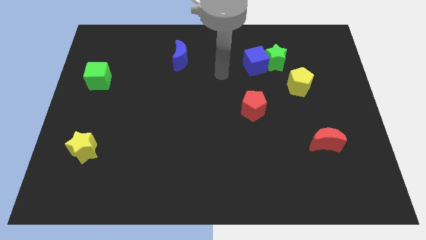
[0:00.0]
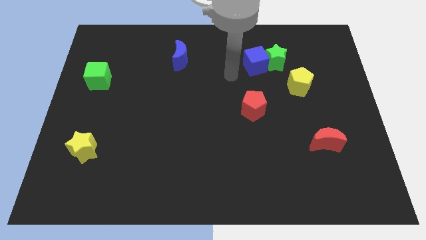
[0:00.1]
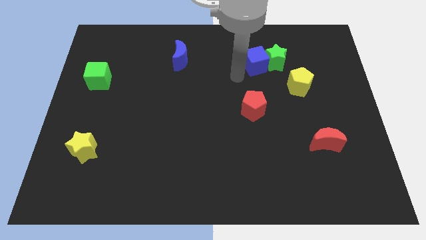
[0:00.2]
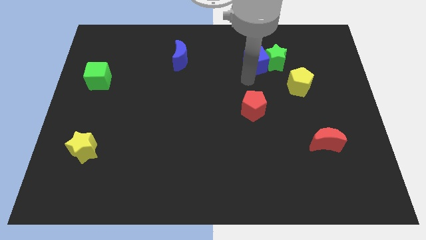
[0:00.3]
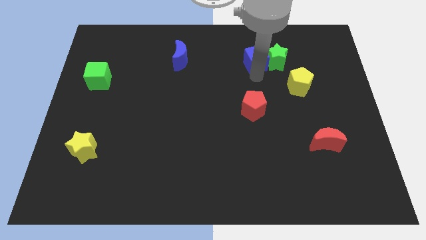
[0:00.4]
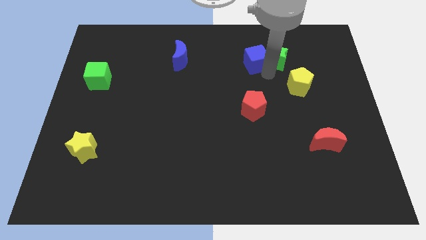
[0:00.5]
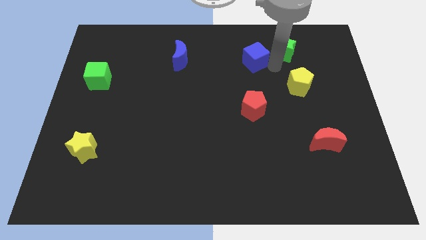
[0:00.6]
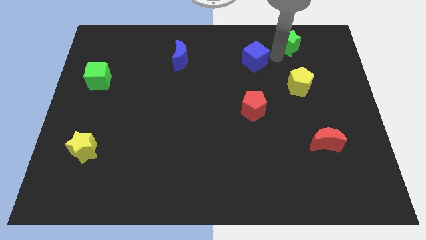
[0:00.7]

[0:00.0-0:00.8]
pull the blue cube apart from the green star

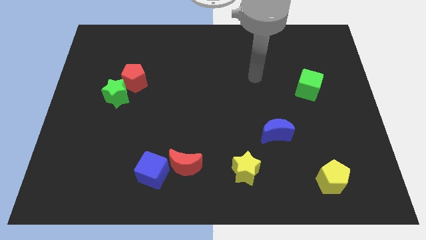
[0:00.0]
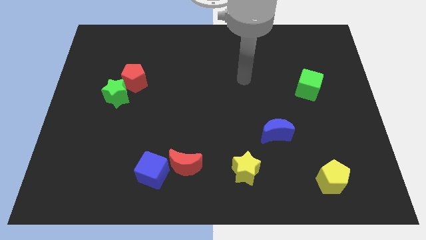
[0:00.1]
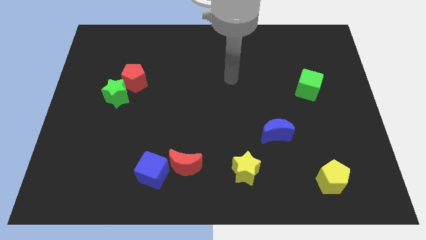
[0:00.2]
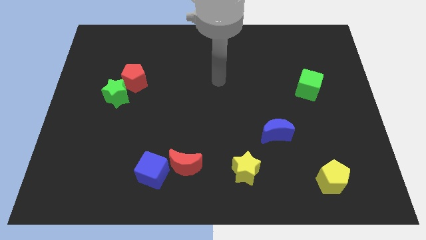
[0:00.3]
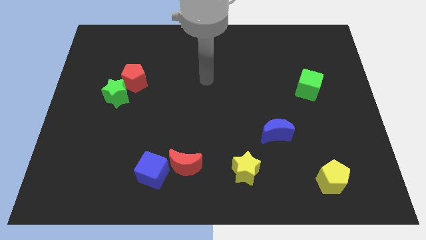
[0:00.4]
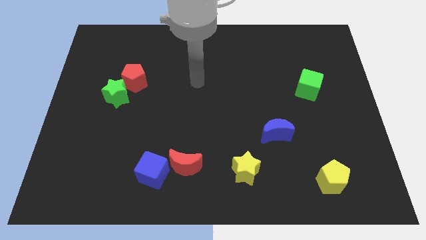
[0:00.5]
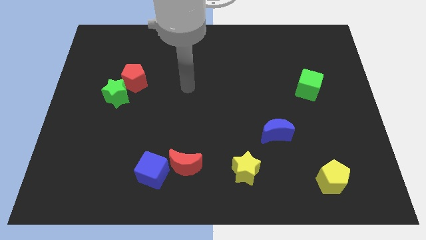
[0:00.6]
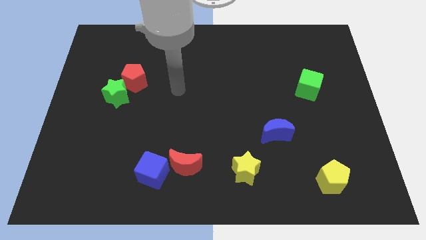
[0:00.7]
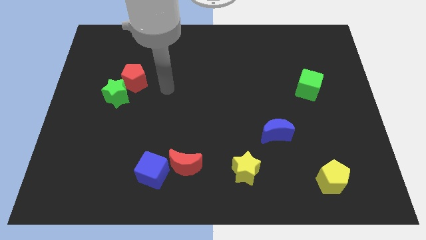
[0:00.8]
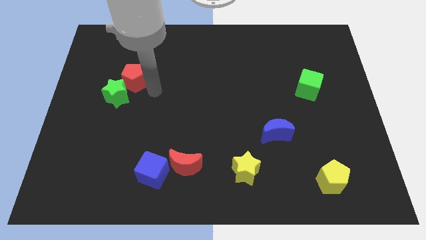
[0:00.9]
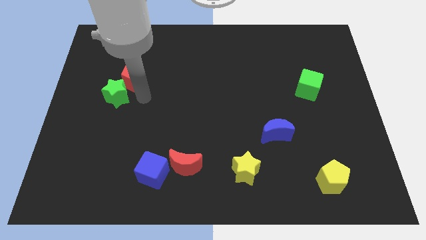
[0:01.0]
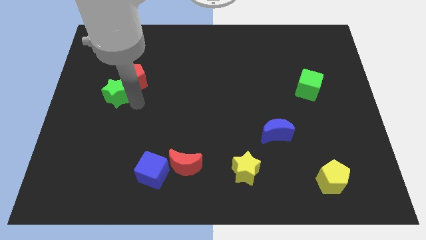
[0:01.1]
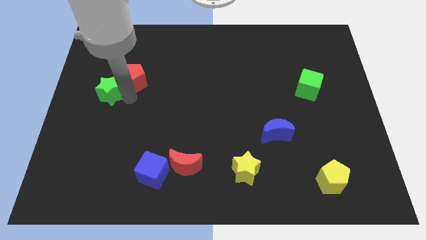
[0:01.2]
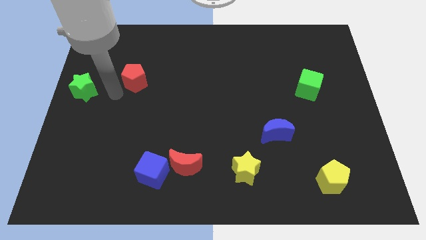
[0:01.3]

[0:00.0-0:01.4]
pull the red pentagon apart from the green star

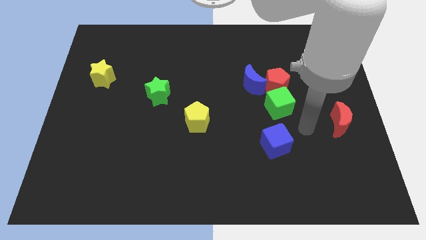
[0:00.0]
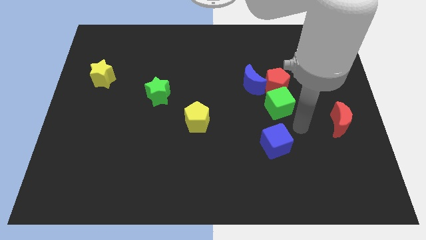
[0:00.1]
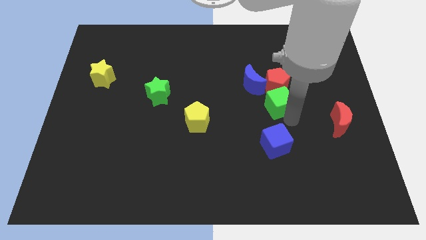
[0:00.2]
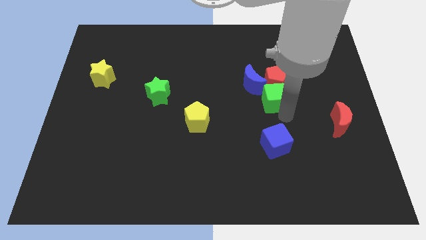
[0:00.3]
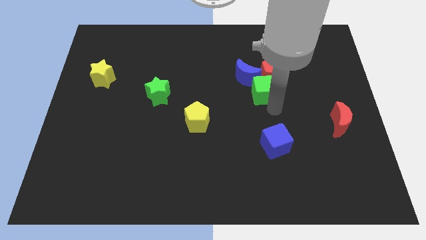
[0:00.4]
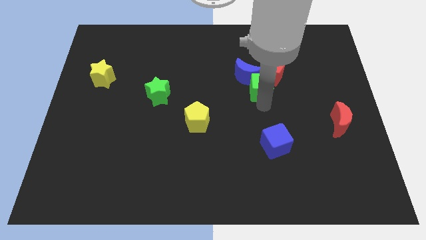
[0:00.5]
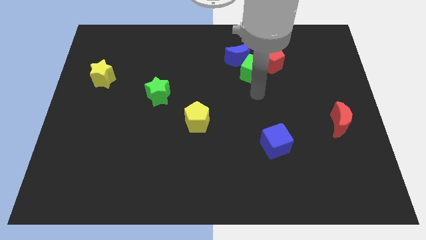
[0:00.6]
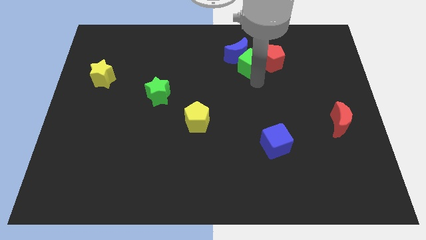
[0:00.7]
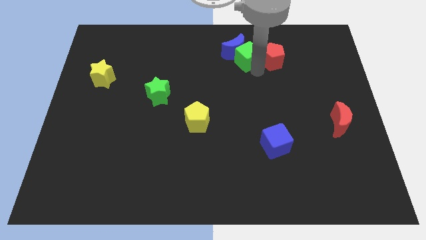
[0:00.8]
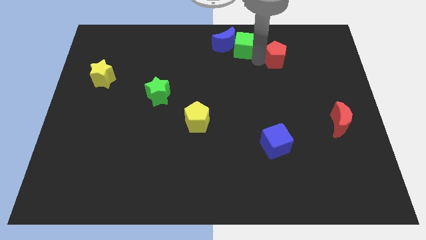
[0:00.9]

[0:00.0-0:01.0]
separate the red pentagon from the blue moon and green cube

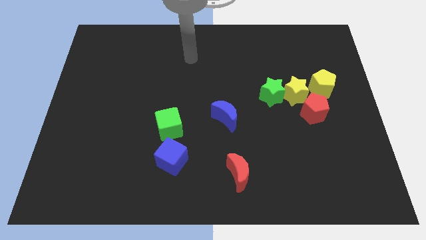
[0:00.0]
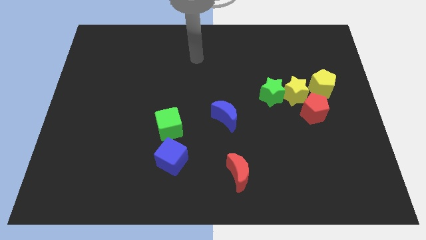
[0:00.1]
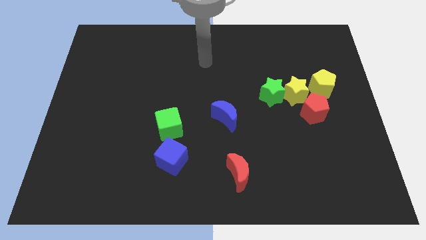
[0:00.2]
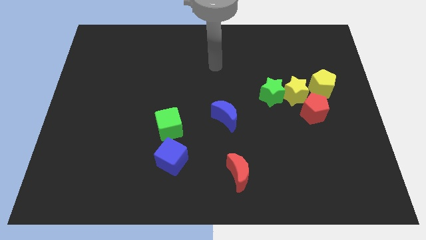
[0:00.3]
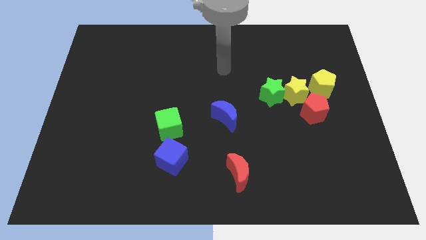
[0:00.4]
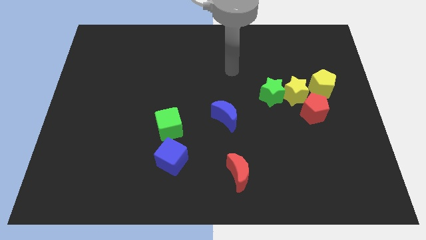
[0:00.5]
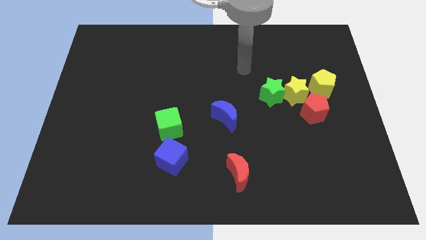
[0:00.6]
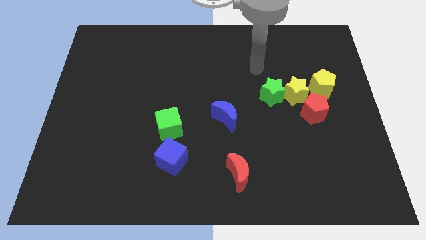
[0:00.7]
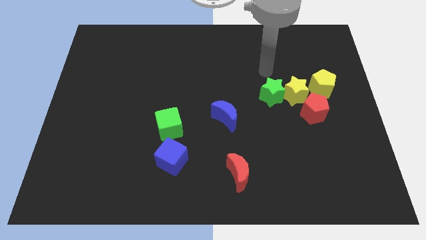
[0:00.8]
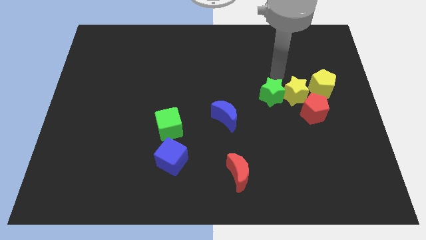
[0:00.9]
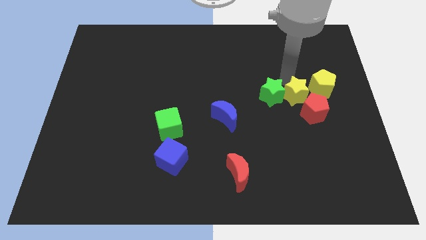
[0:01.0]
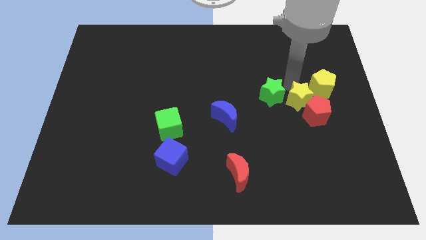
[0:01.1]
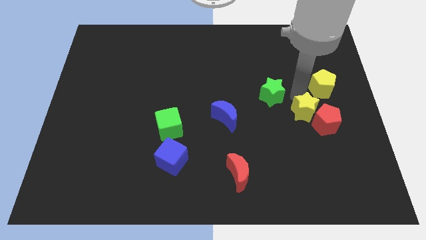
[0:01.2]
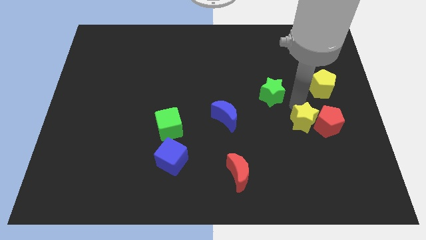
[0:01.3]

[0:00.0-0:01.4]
separate the green star from the yellow star

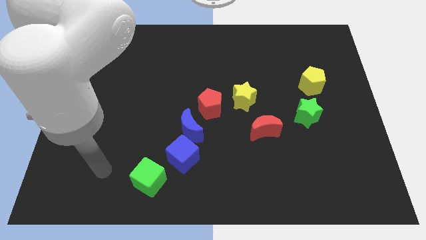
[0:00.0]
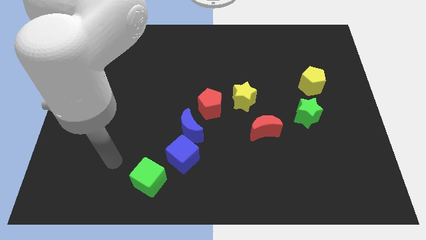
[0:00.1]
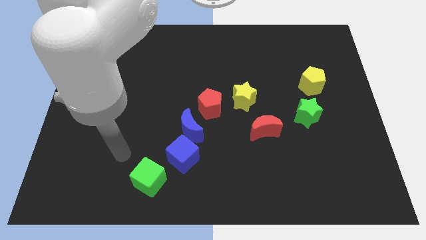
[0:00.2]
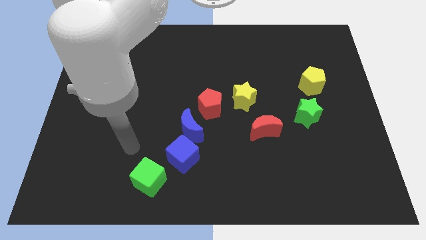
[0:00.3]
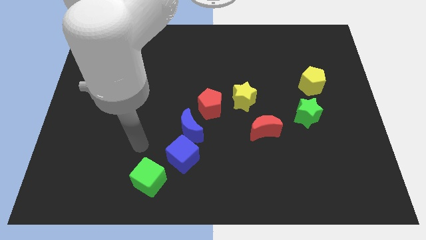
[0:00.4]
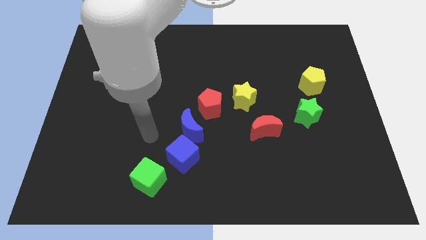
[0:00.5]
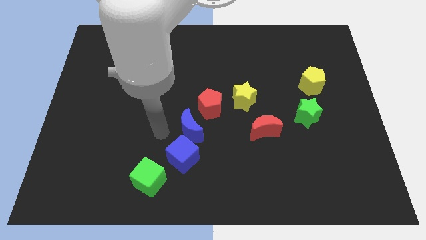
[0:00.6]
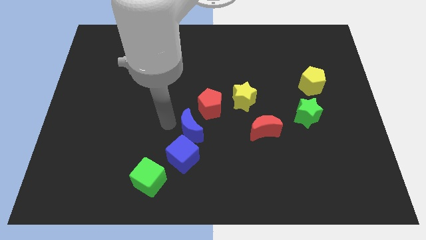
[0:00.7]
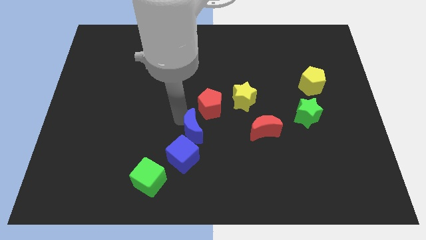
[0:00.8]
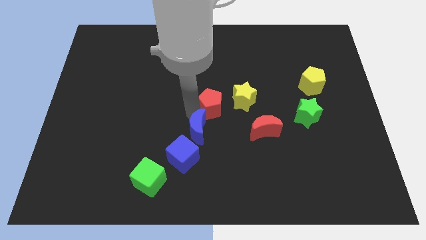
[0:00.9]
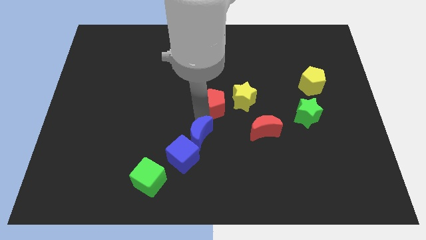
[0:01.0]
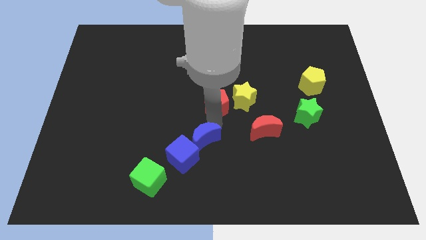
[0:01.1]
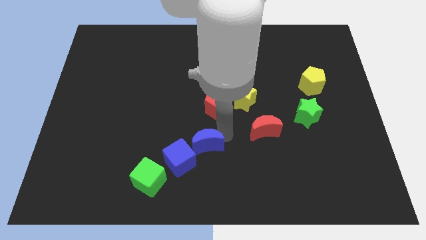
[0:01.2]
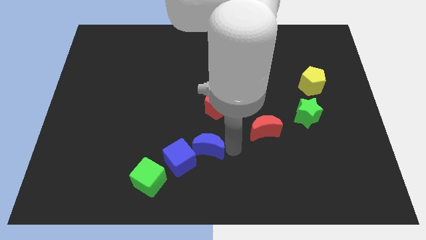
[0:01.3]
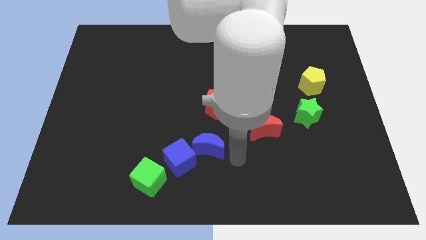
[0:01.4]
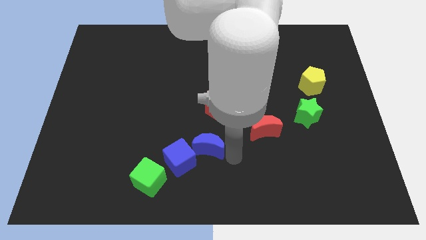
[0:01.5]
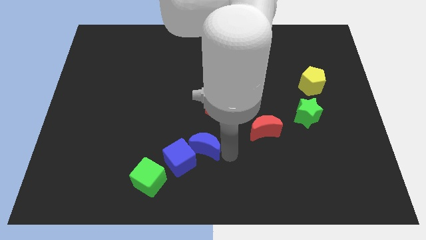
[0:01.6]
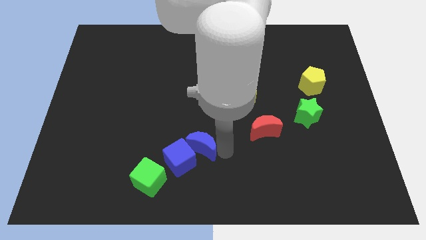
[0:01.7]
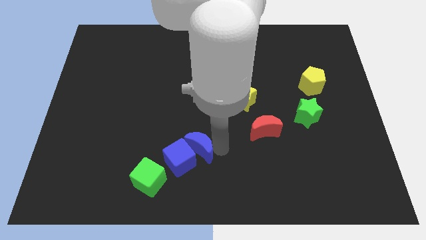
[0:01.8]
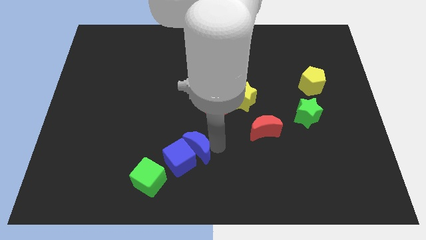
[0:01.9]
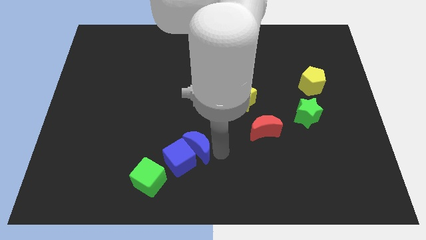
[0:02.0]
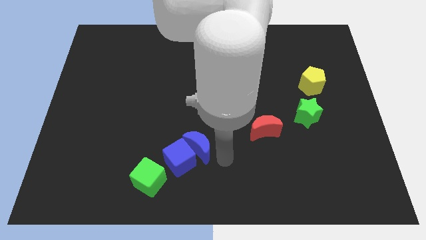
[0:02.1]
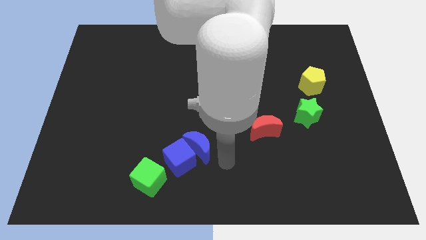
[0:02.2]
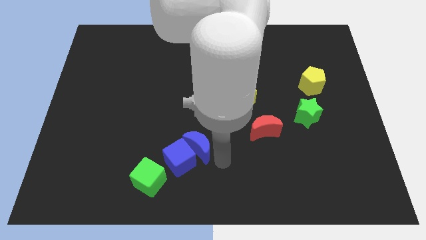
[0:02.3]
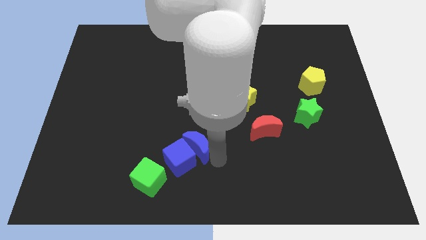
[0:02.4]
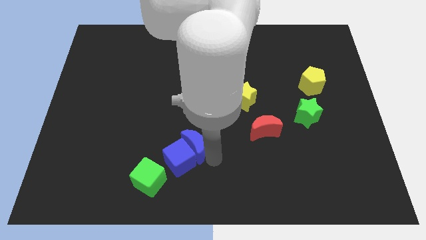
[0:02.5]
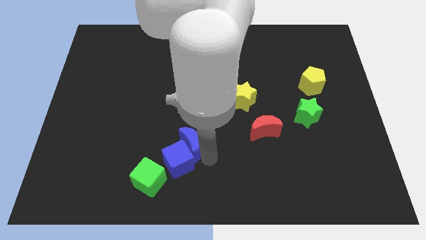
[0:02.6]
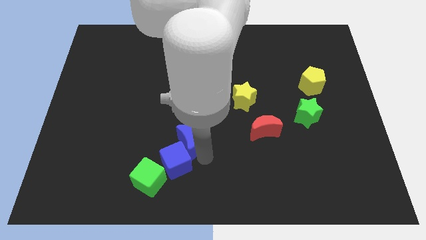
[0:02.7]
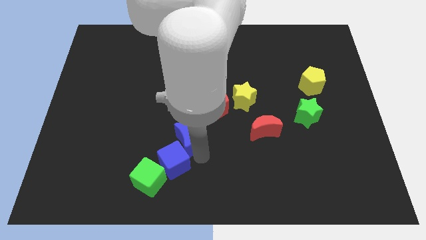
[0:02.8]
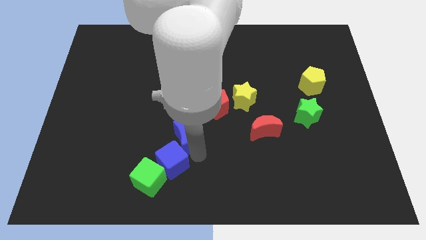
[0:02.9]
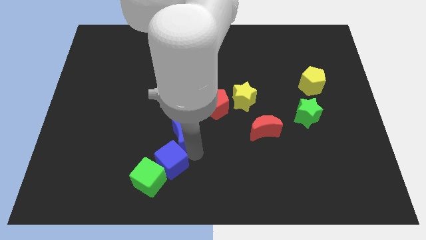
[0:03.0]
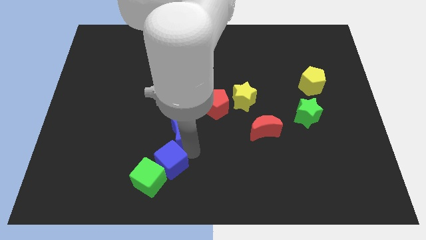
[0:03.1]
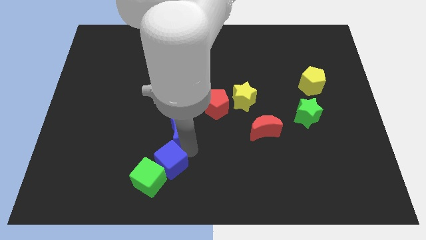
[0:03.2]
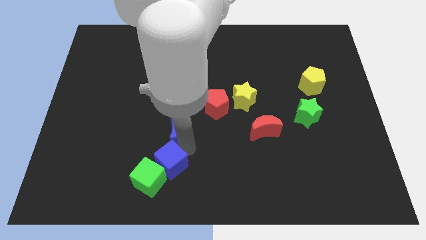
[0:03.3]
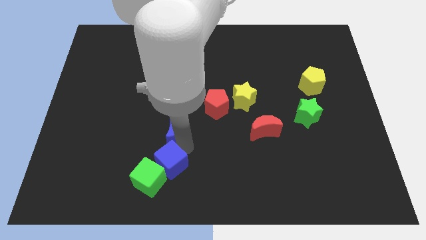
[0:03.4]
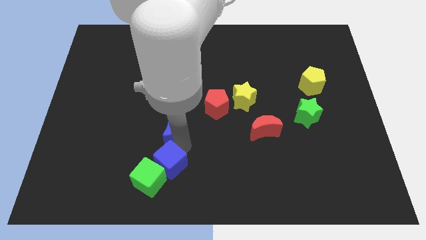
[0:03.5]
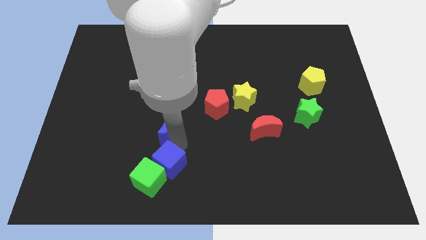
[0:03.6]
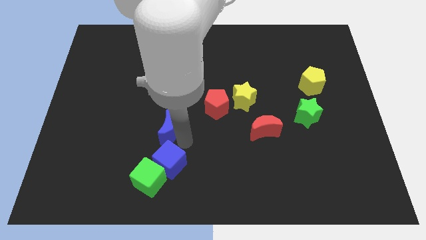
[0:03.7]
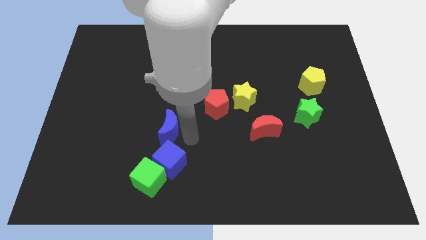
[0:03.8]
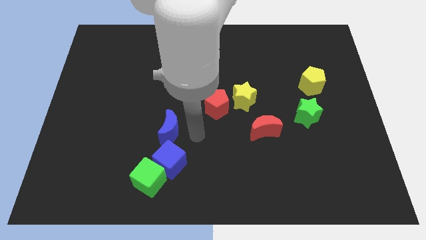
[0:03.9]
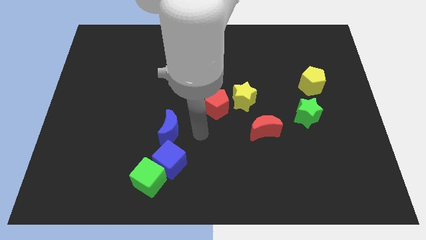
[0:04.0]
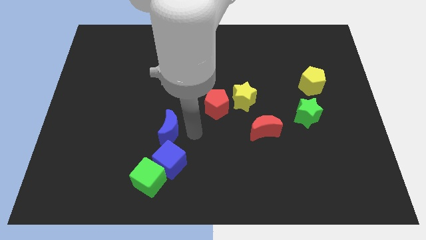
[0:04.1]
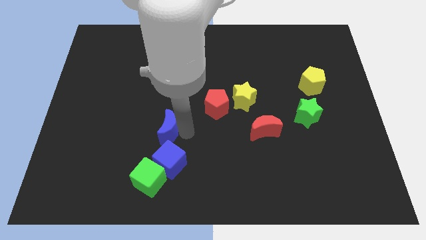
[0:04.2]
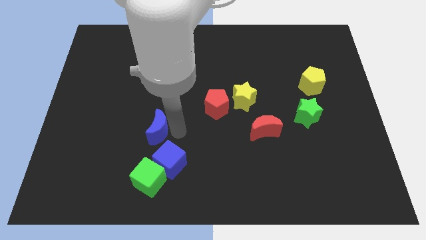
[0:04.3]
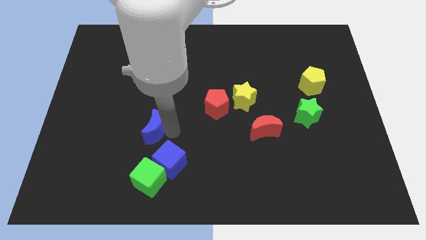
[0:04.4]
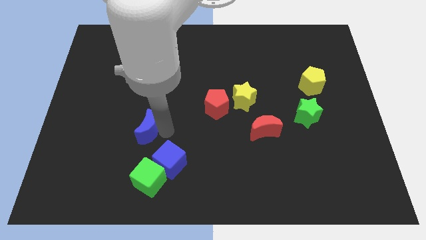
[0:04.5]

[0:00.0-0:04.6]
separate the blue moon from the blue cube and red pentagon

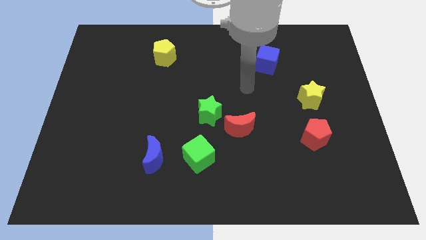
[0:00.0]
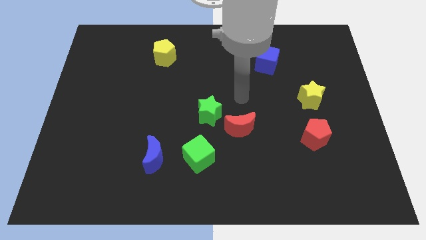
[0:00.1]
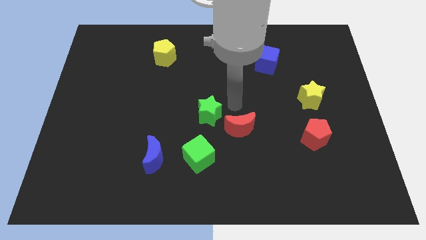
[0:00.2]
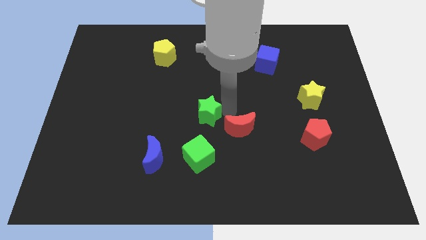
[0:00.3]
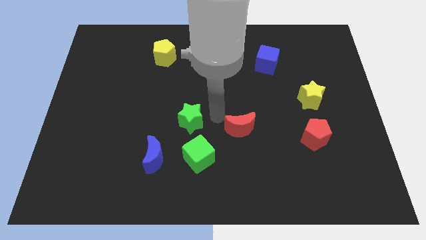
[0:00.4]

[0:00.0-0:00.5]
pull the red moon apart from the green star
